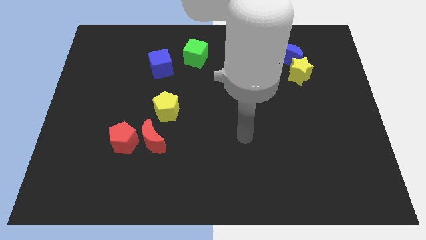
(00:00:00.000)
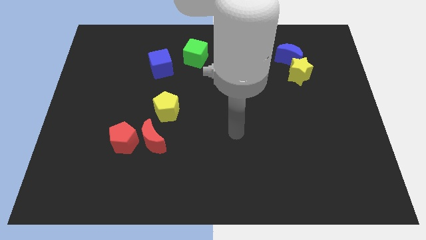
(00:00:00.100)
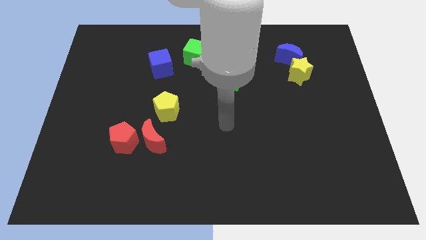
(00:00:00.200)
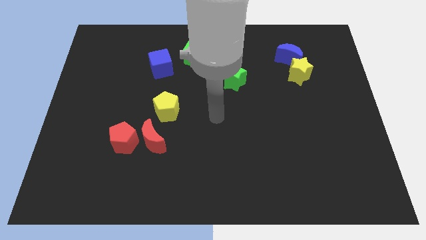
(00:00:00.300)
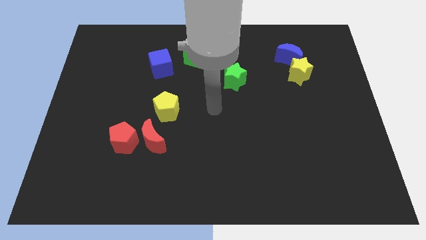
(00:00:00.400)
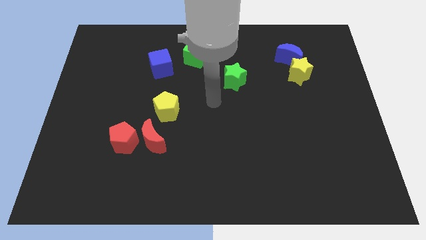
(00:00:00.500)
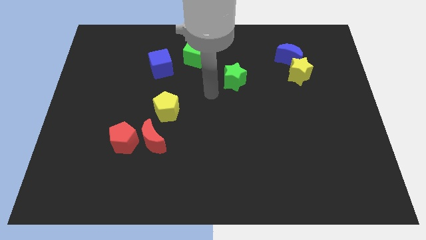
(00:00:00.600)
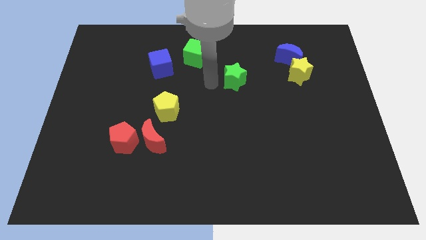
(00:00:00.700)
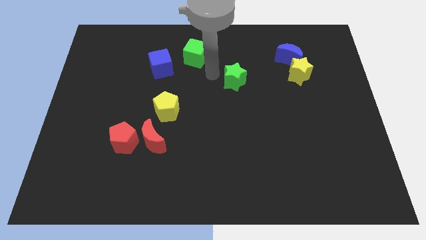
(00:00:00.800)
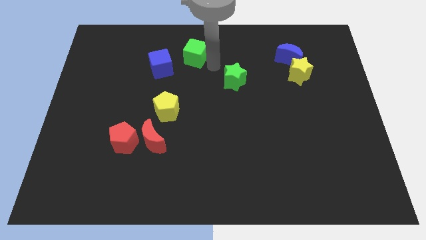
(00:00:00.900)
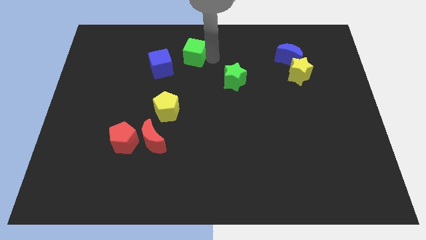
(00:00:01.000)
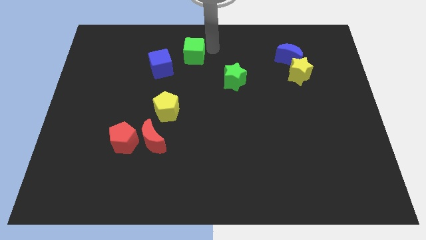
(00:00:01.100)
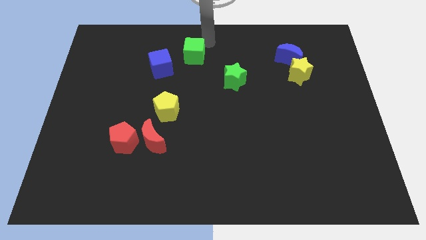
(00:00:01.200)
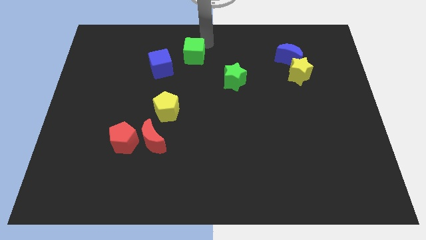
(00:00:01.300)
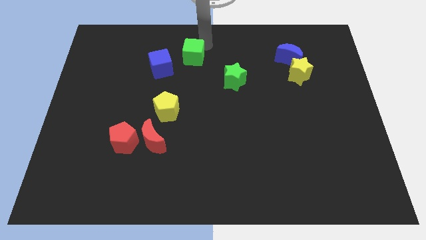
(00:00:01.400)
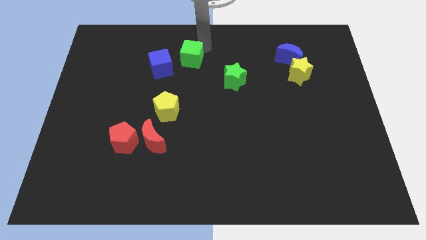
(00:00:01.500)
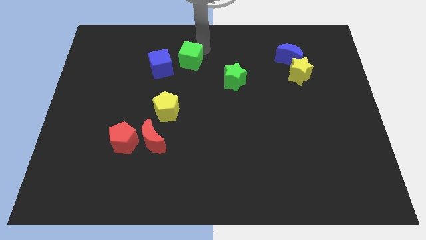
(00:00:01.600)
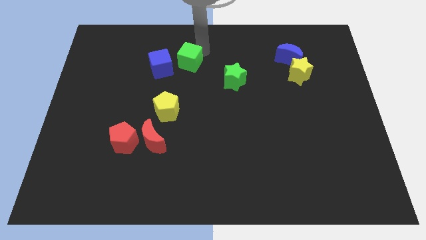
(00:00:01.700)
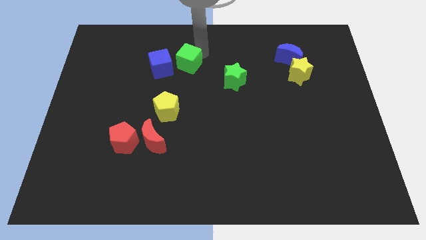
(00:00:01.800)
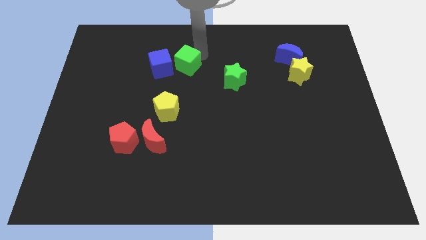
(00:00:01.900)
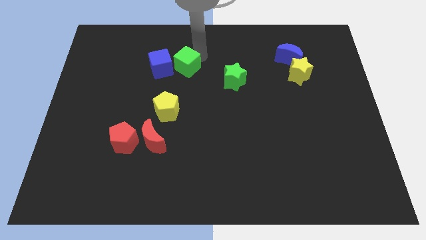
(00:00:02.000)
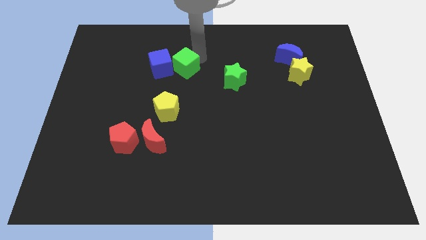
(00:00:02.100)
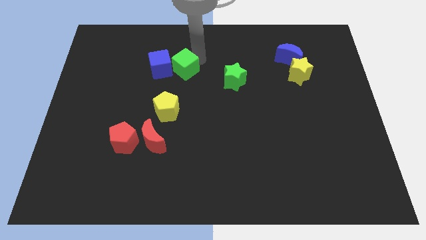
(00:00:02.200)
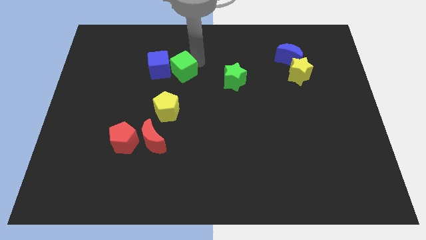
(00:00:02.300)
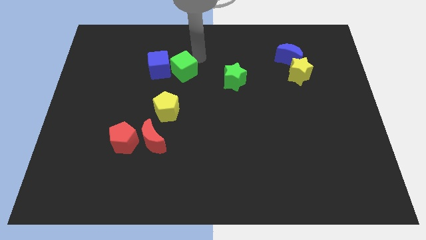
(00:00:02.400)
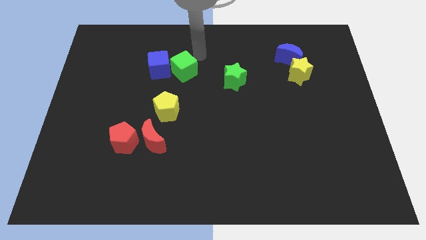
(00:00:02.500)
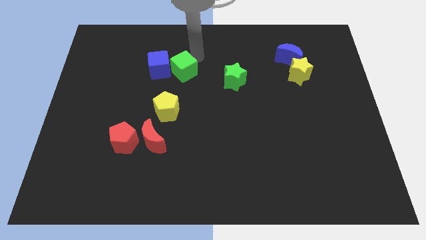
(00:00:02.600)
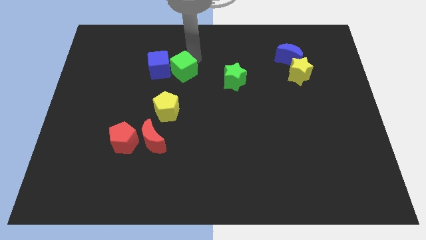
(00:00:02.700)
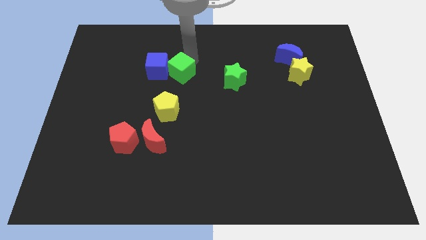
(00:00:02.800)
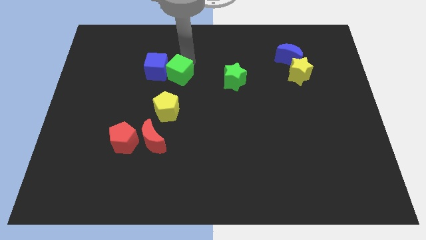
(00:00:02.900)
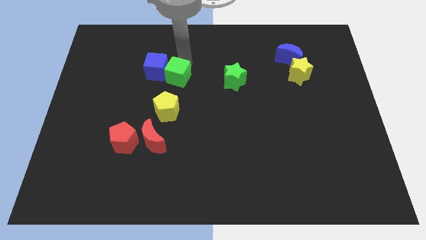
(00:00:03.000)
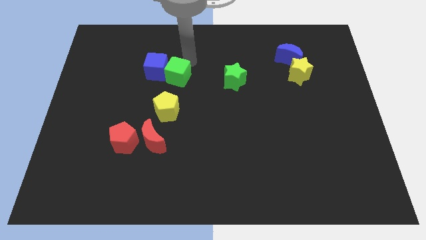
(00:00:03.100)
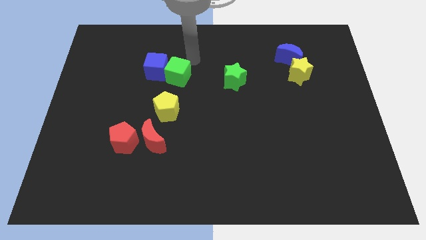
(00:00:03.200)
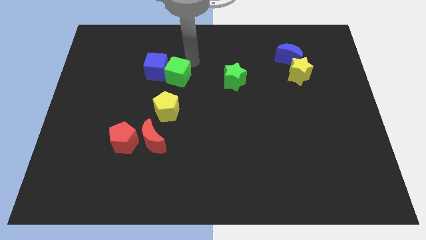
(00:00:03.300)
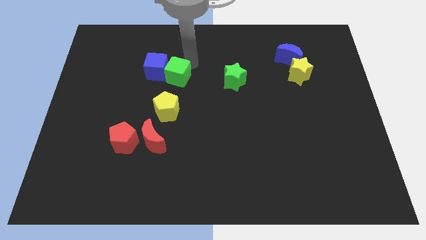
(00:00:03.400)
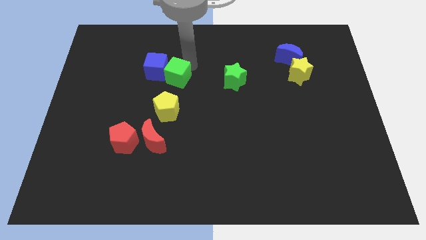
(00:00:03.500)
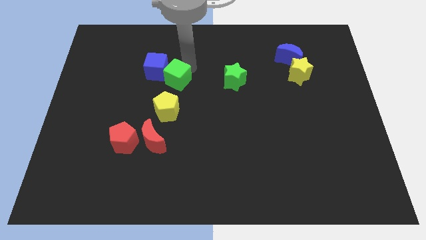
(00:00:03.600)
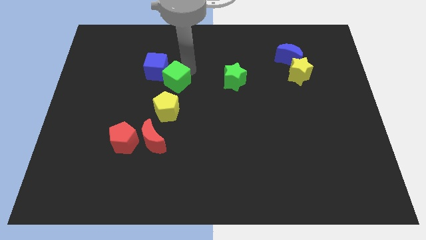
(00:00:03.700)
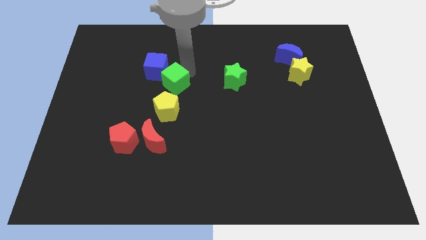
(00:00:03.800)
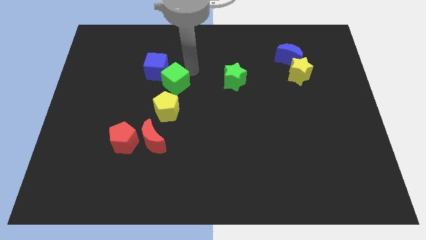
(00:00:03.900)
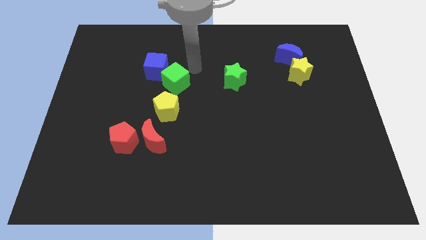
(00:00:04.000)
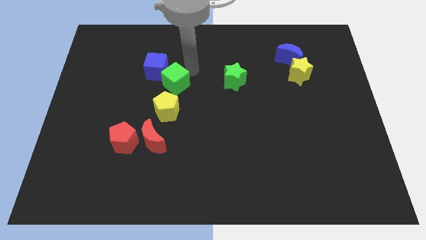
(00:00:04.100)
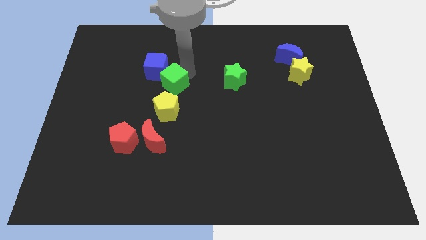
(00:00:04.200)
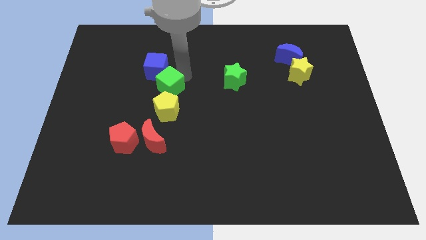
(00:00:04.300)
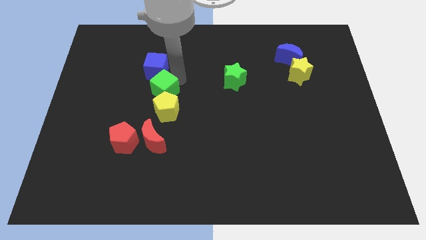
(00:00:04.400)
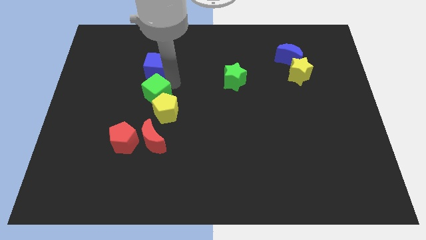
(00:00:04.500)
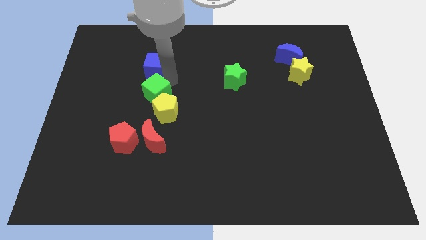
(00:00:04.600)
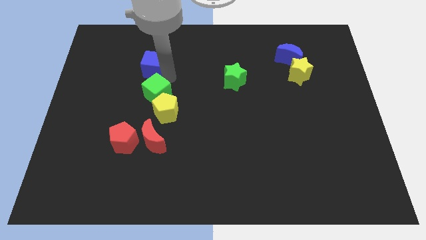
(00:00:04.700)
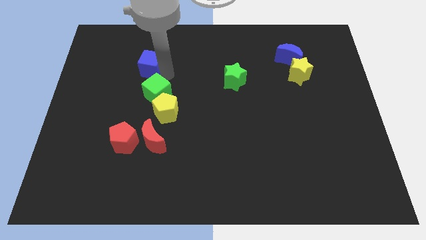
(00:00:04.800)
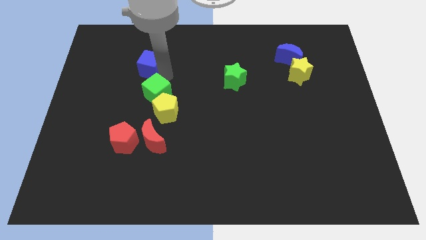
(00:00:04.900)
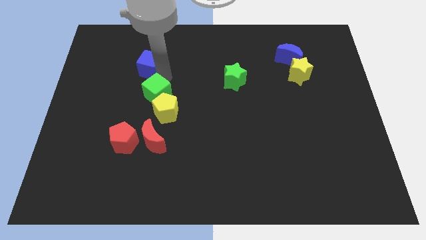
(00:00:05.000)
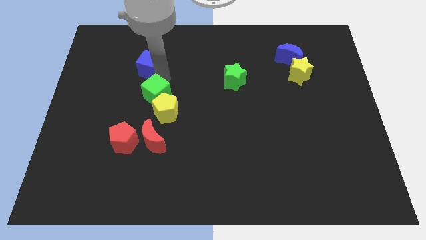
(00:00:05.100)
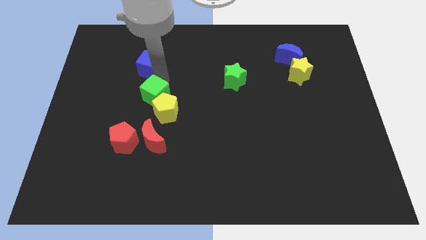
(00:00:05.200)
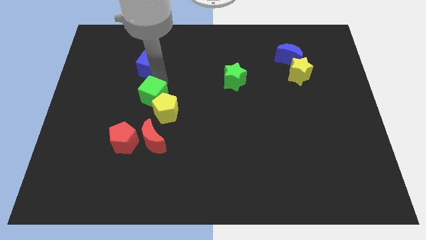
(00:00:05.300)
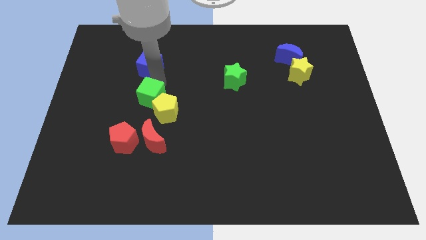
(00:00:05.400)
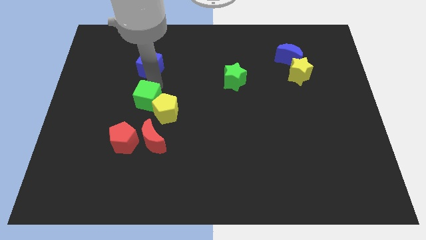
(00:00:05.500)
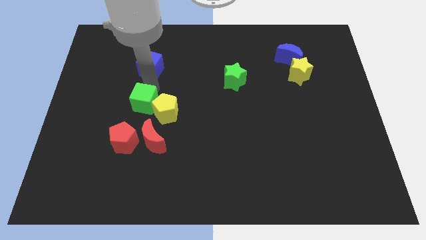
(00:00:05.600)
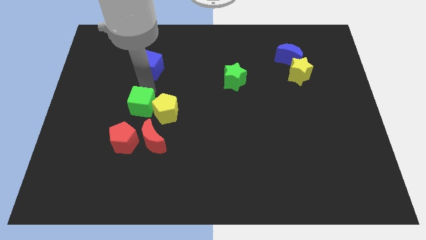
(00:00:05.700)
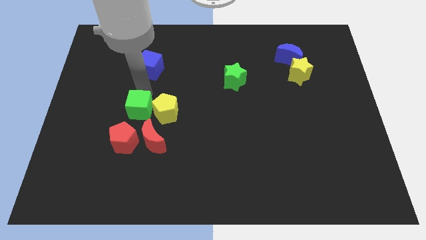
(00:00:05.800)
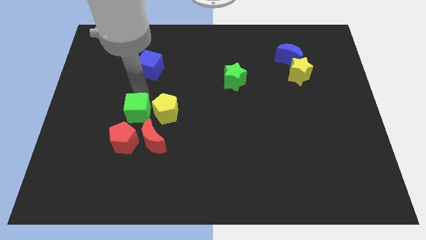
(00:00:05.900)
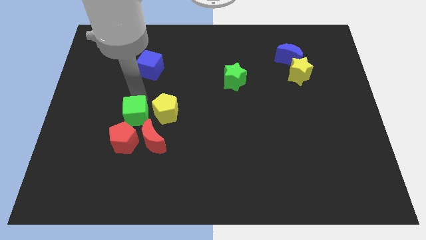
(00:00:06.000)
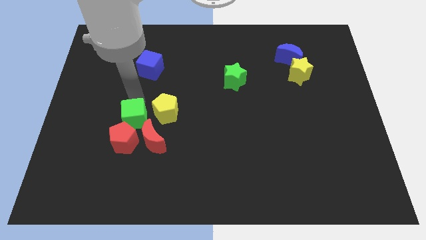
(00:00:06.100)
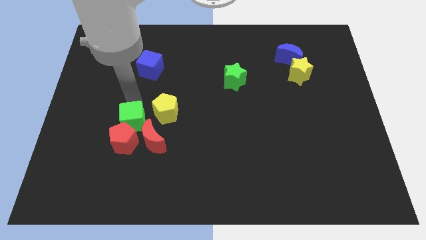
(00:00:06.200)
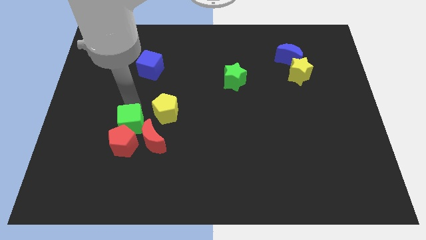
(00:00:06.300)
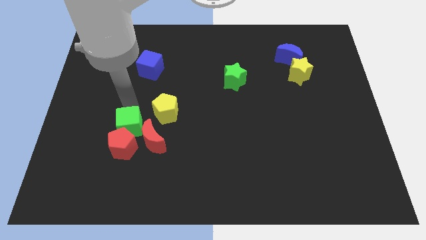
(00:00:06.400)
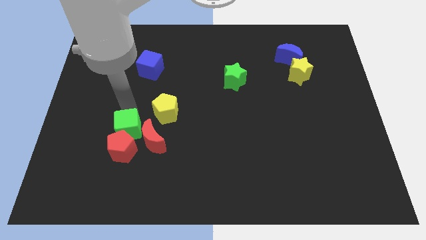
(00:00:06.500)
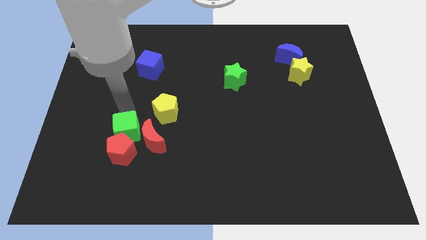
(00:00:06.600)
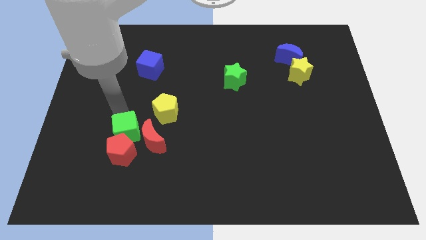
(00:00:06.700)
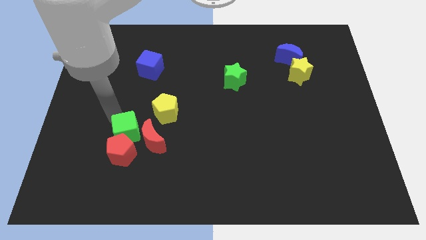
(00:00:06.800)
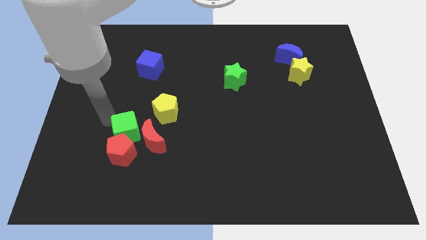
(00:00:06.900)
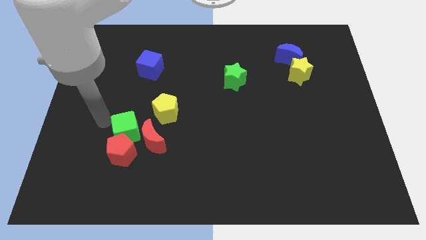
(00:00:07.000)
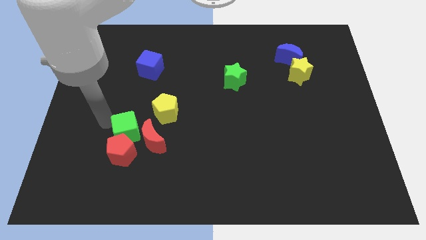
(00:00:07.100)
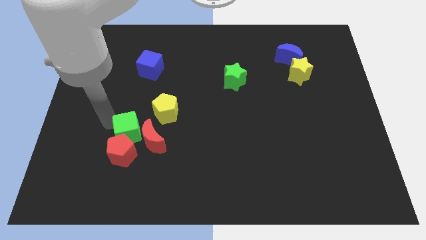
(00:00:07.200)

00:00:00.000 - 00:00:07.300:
move the green cube to the red moon

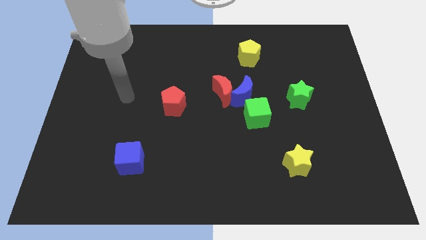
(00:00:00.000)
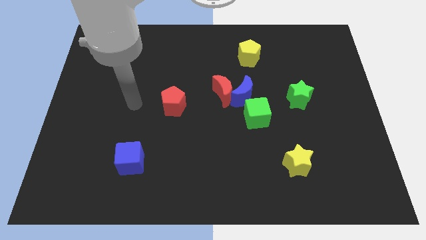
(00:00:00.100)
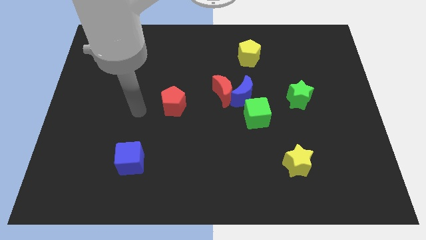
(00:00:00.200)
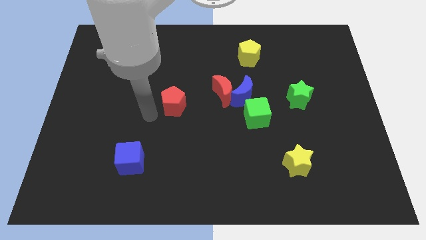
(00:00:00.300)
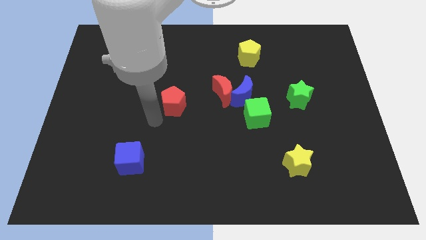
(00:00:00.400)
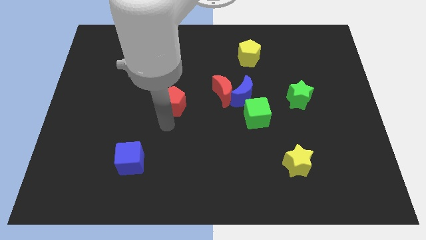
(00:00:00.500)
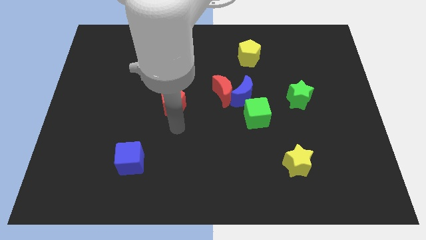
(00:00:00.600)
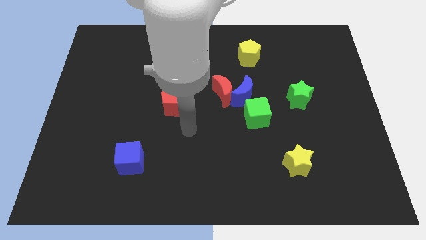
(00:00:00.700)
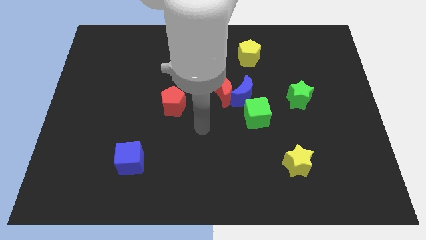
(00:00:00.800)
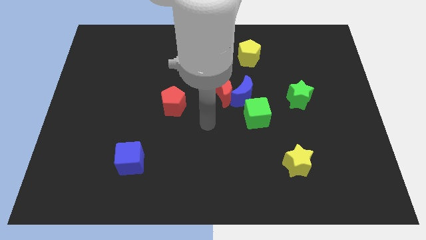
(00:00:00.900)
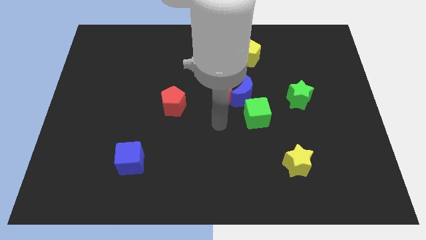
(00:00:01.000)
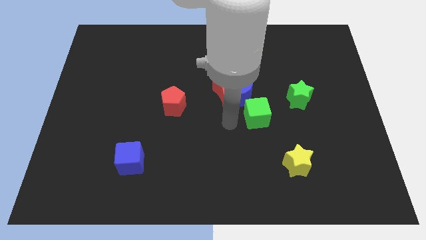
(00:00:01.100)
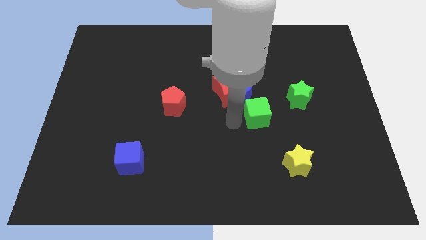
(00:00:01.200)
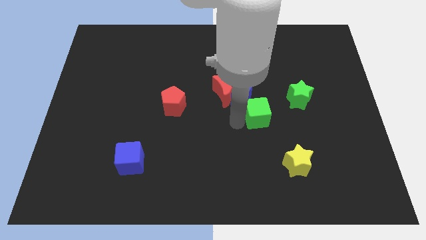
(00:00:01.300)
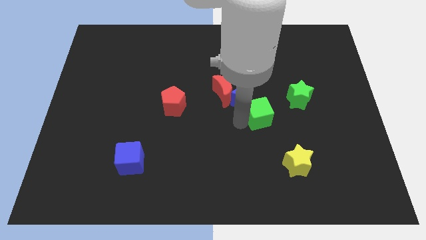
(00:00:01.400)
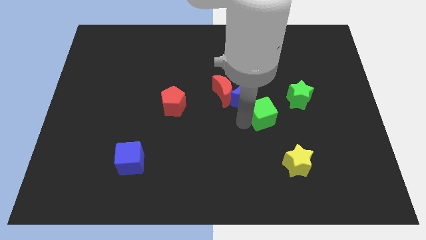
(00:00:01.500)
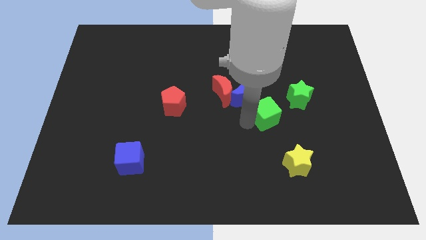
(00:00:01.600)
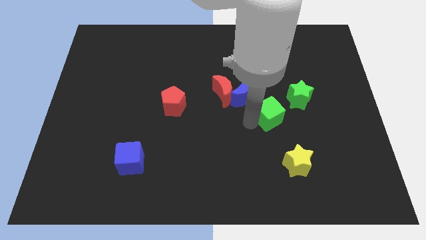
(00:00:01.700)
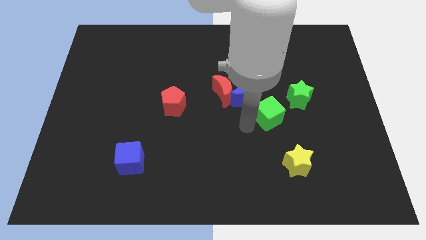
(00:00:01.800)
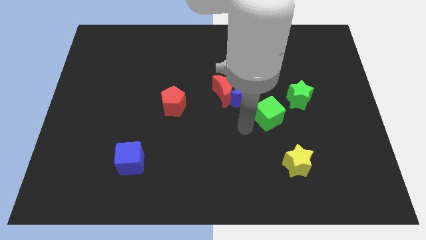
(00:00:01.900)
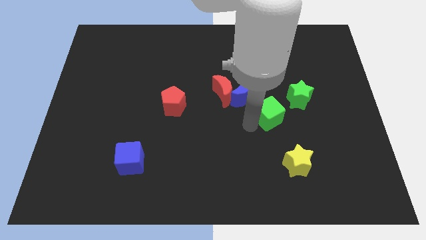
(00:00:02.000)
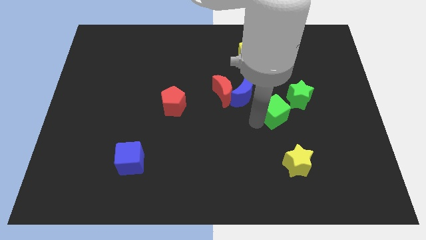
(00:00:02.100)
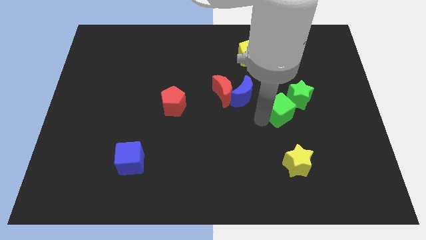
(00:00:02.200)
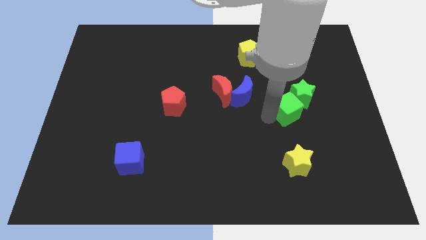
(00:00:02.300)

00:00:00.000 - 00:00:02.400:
put the green cube to the green star
